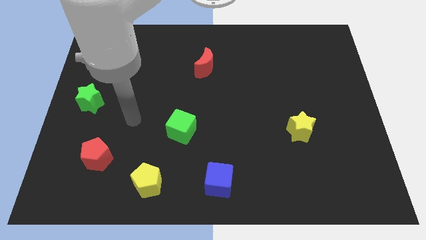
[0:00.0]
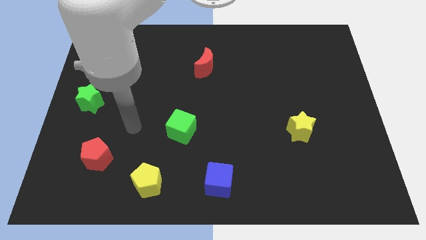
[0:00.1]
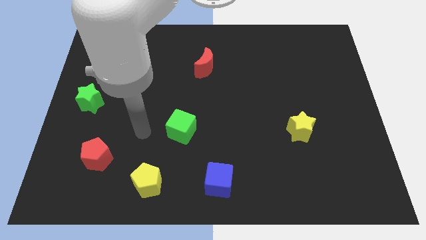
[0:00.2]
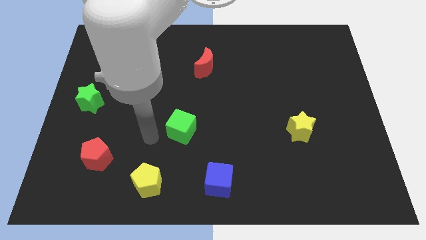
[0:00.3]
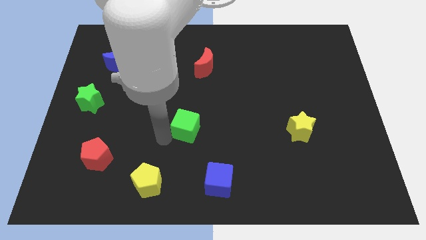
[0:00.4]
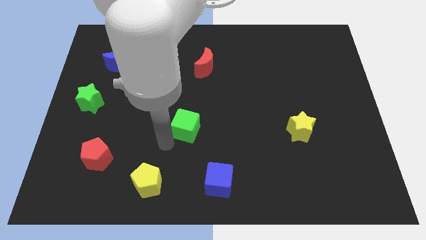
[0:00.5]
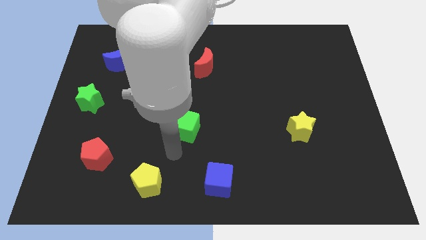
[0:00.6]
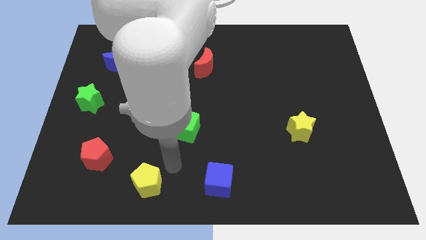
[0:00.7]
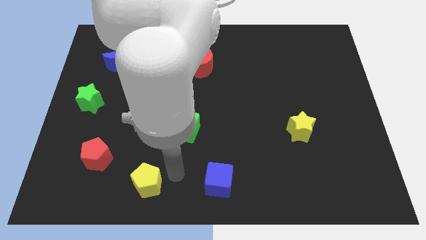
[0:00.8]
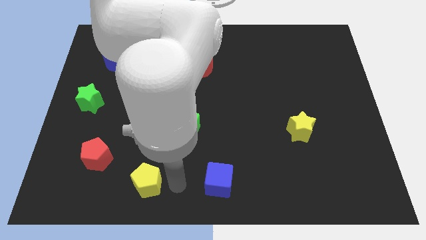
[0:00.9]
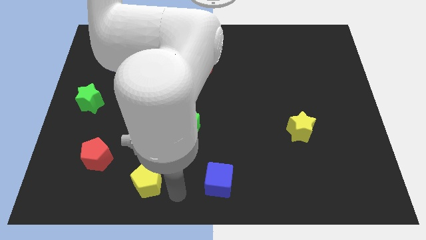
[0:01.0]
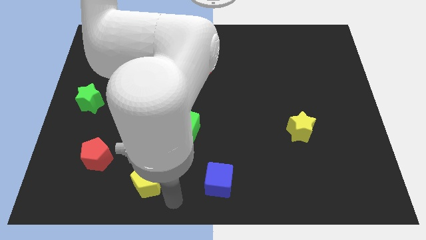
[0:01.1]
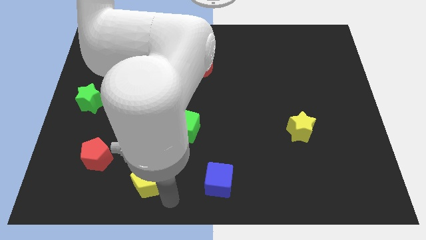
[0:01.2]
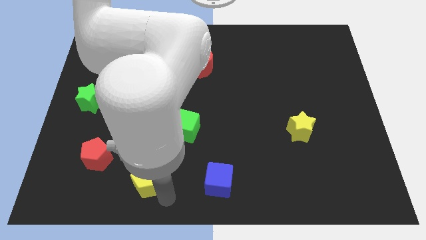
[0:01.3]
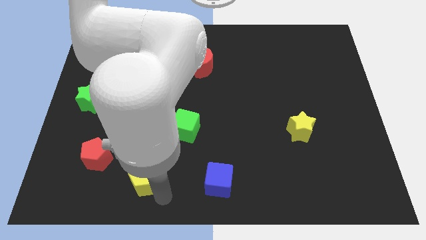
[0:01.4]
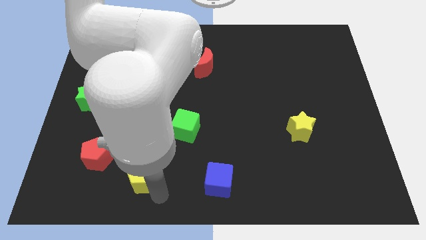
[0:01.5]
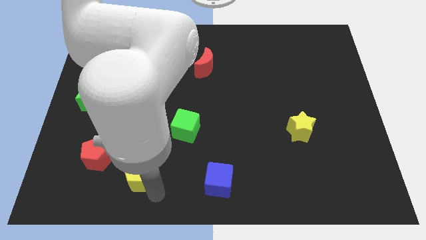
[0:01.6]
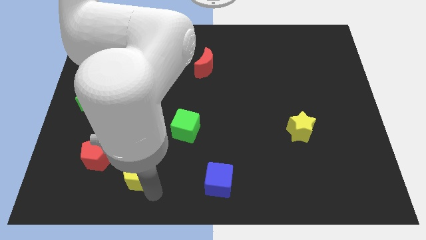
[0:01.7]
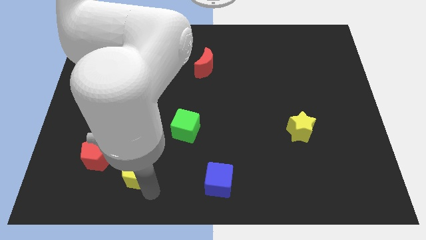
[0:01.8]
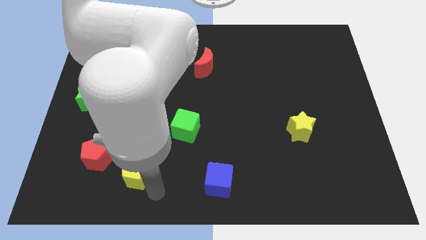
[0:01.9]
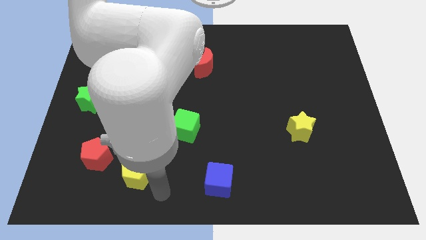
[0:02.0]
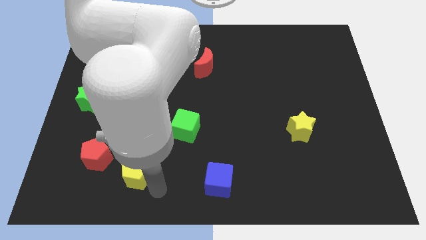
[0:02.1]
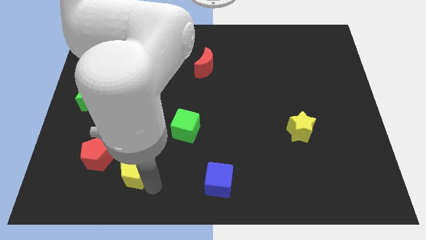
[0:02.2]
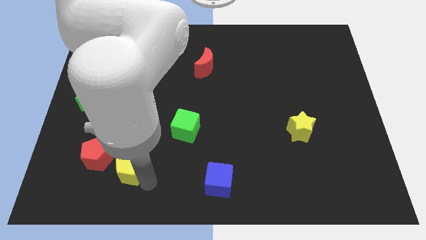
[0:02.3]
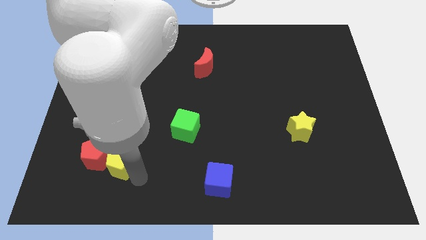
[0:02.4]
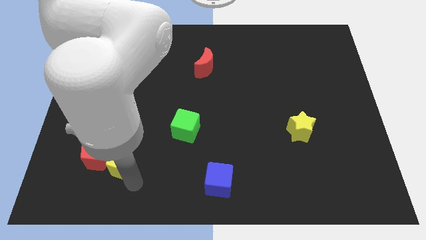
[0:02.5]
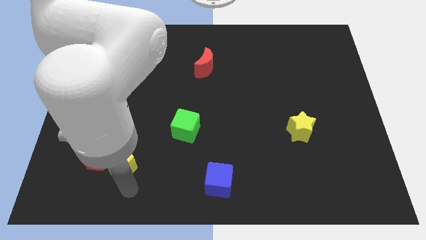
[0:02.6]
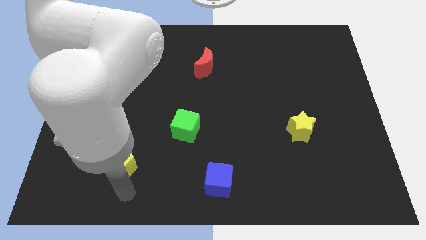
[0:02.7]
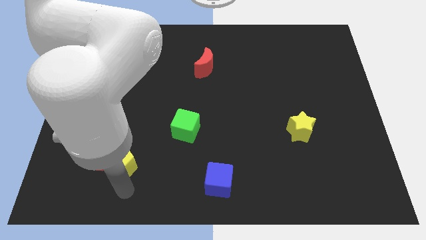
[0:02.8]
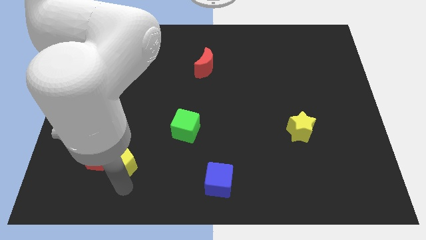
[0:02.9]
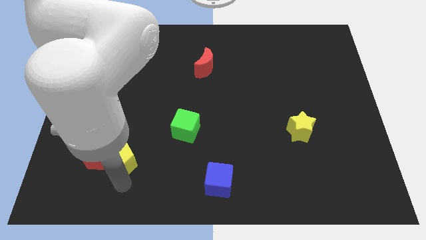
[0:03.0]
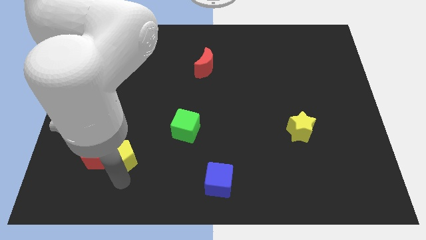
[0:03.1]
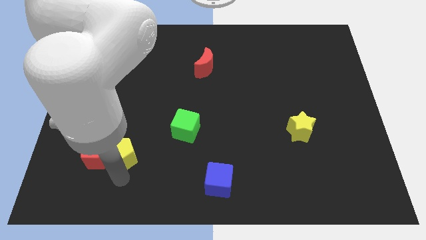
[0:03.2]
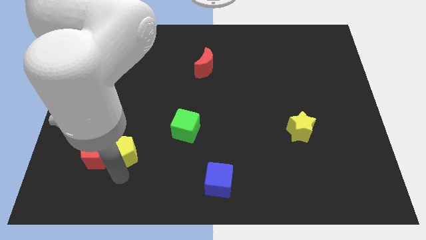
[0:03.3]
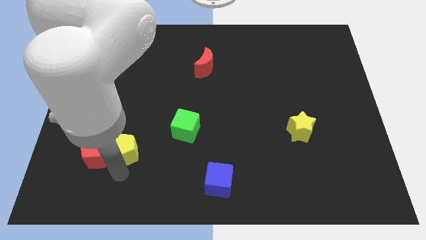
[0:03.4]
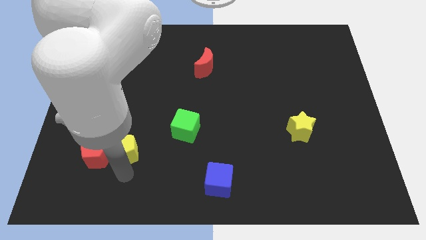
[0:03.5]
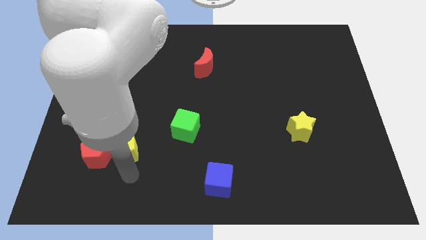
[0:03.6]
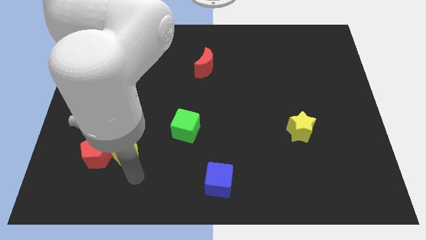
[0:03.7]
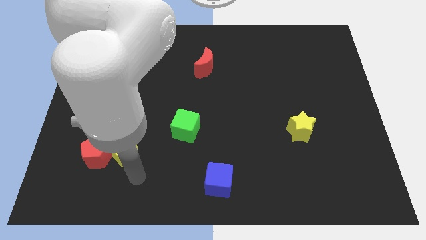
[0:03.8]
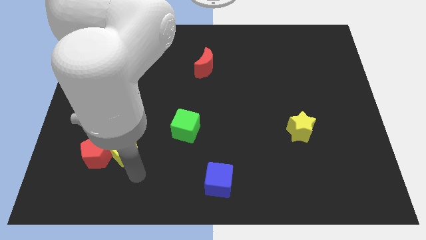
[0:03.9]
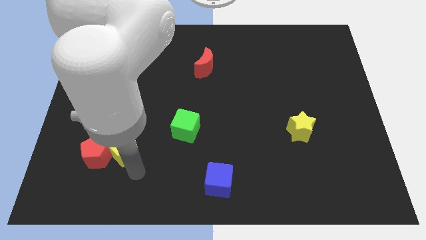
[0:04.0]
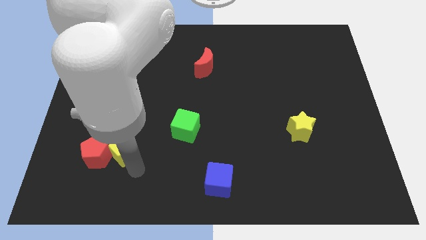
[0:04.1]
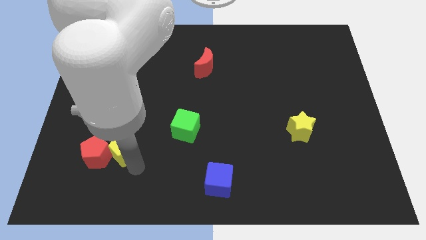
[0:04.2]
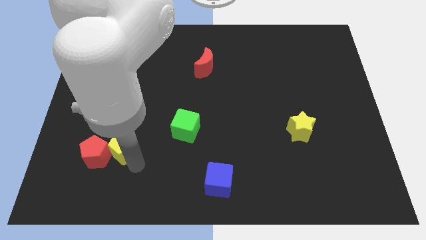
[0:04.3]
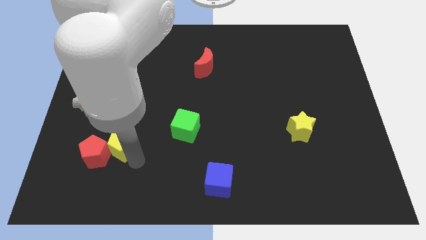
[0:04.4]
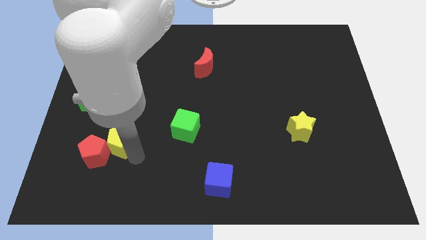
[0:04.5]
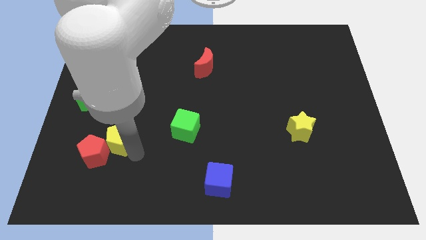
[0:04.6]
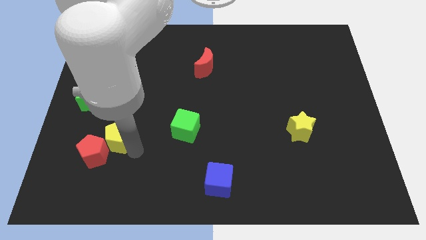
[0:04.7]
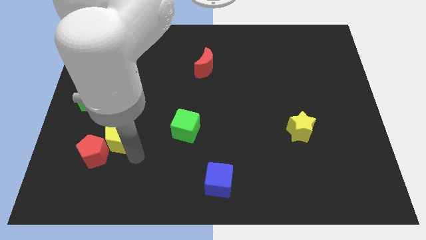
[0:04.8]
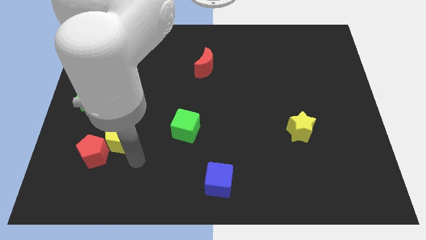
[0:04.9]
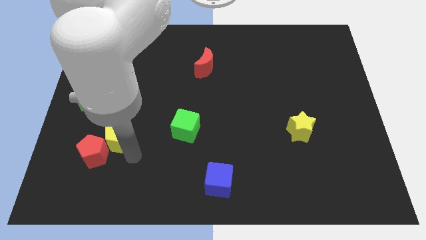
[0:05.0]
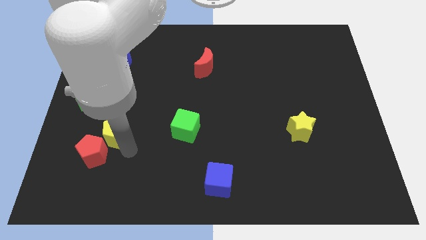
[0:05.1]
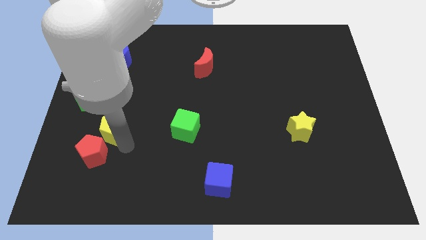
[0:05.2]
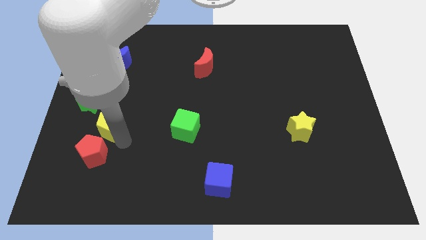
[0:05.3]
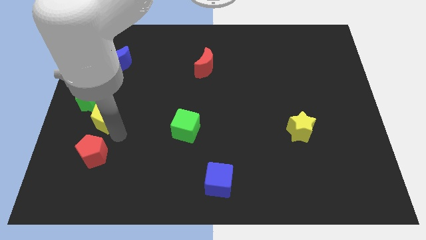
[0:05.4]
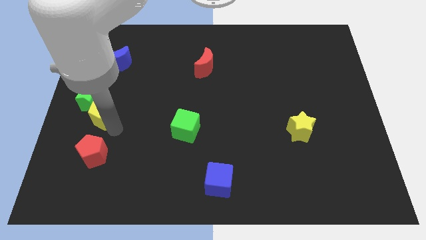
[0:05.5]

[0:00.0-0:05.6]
push the yellow pentagon to the green star
